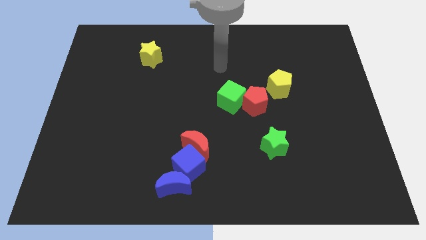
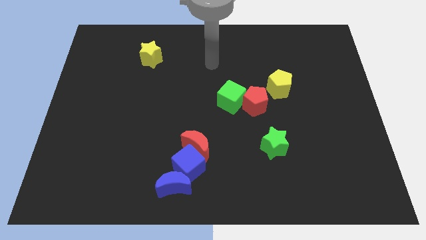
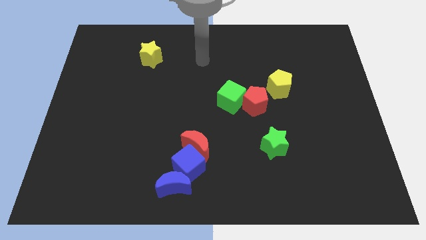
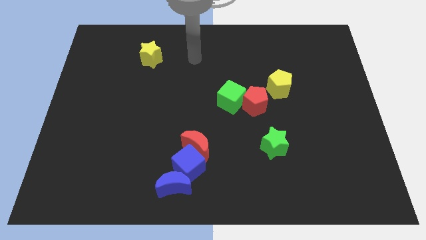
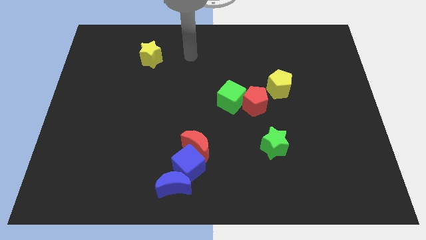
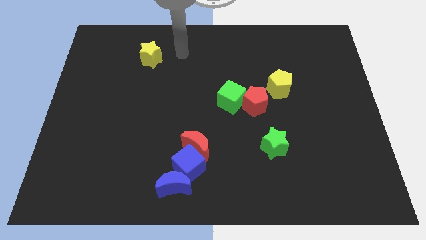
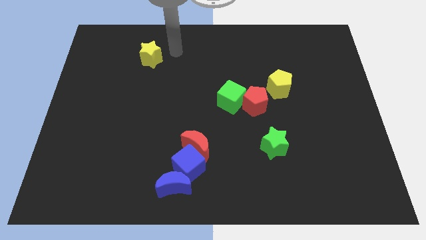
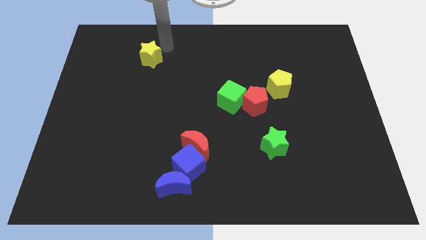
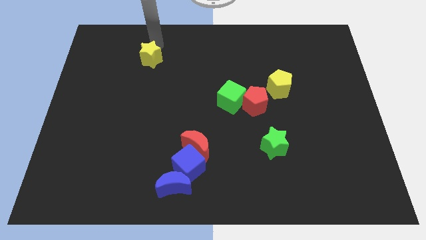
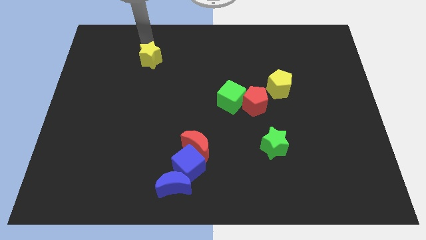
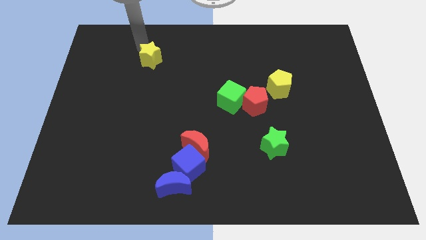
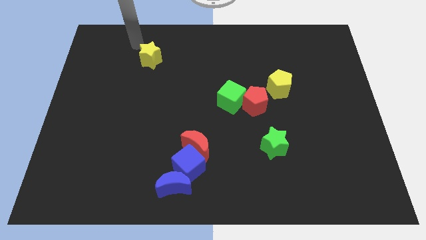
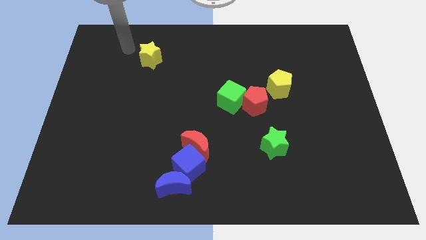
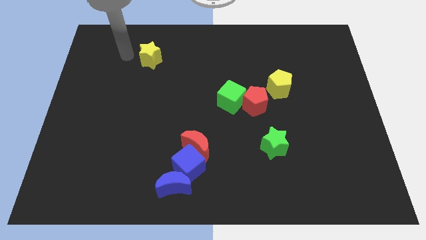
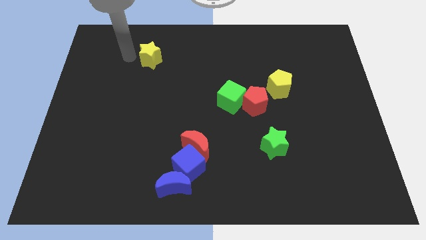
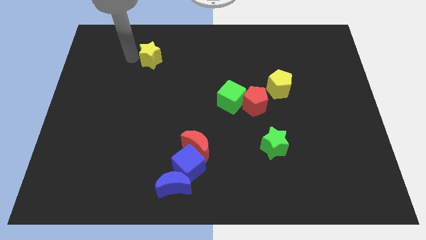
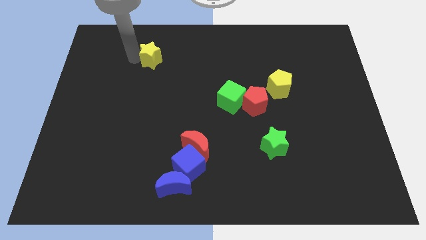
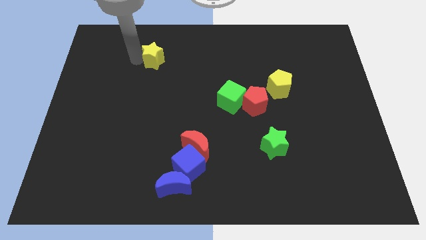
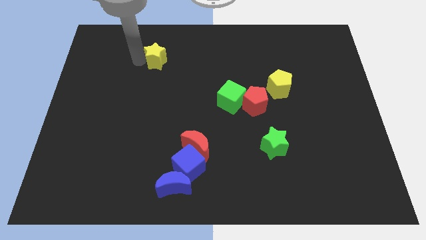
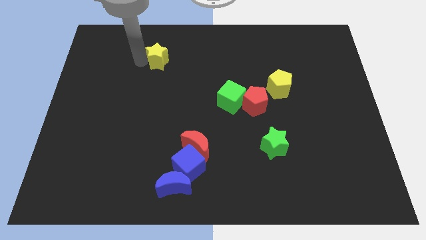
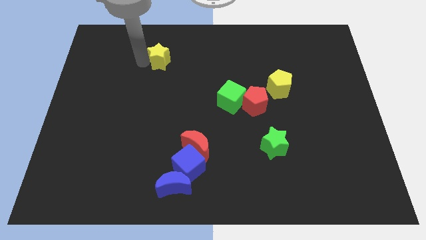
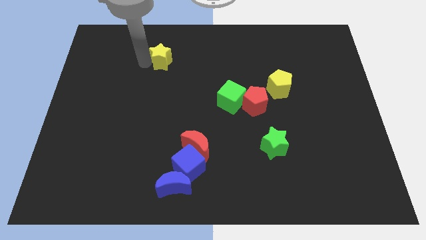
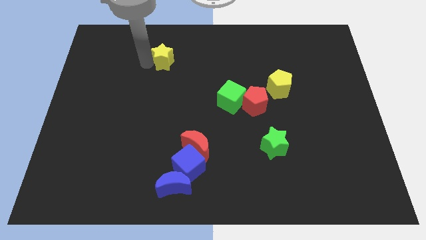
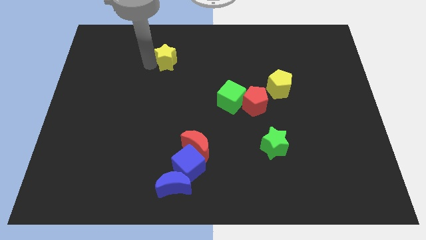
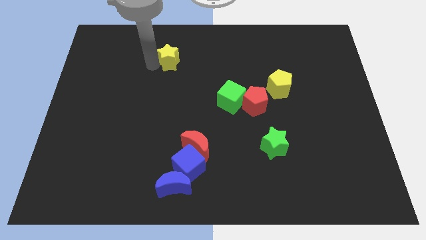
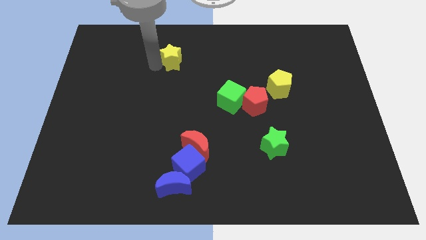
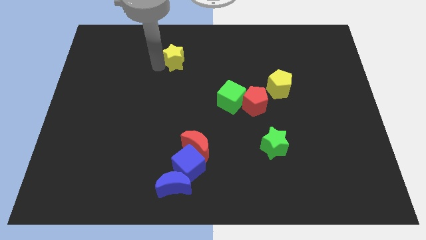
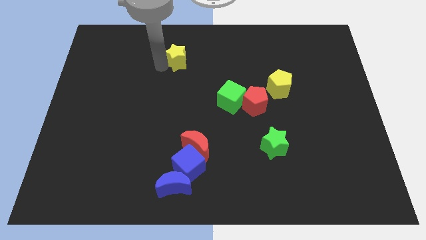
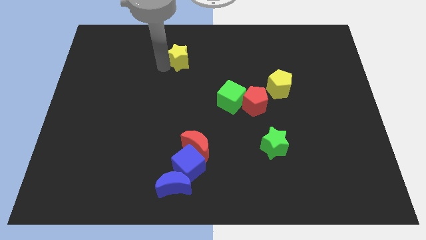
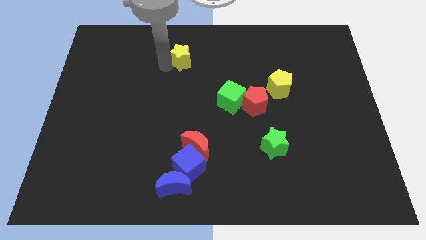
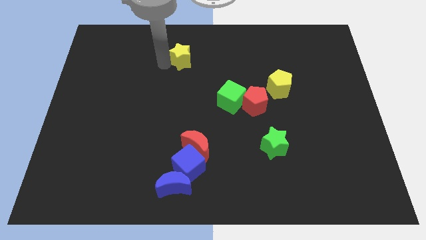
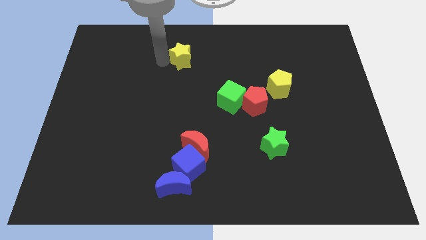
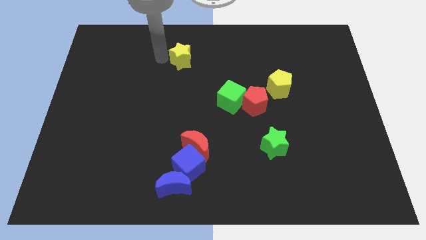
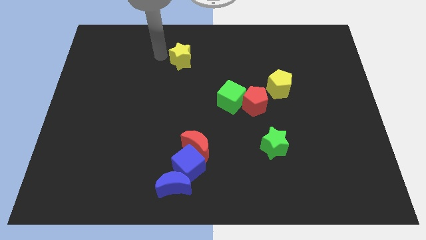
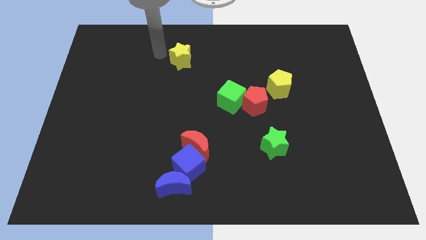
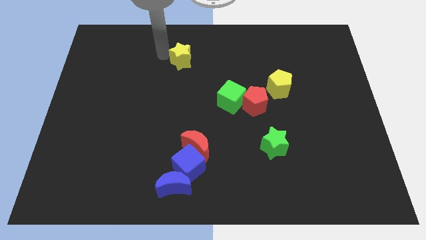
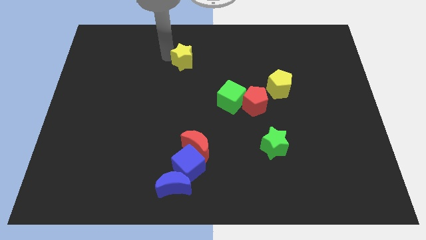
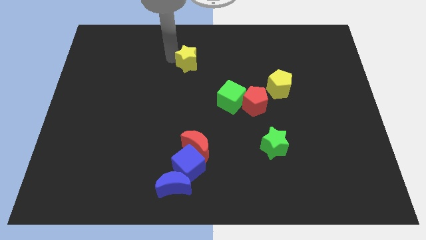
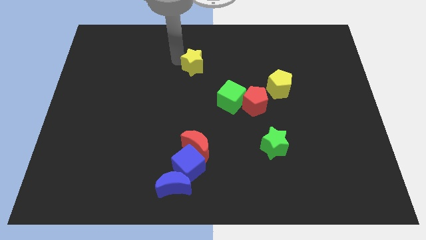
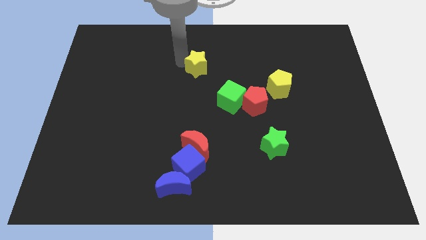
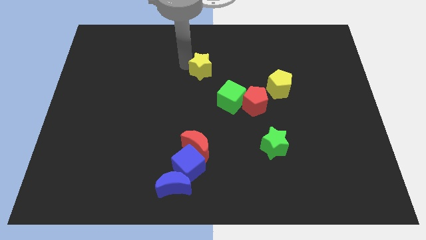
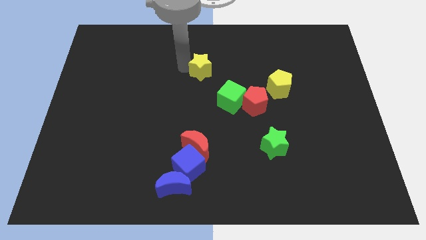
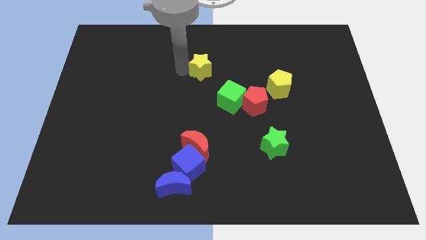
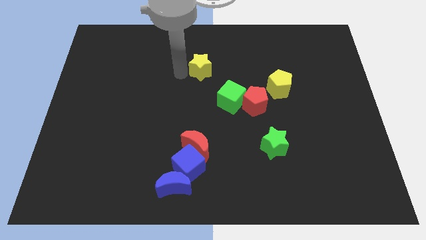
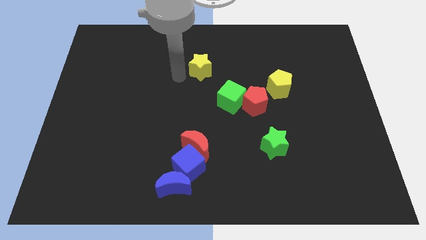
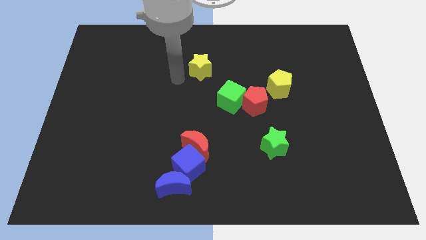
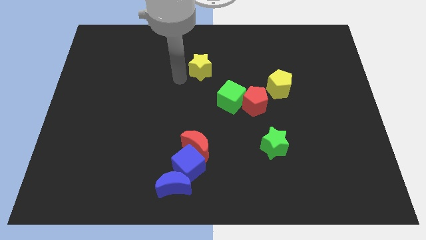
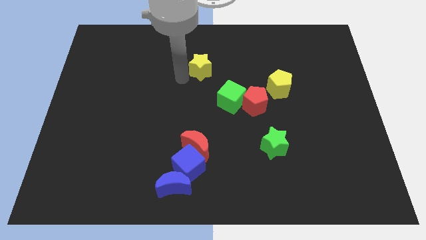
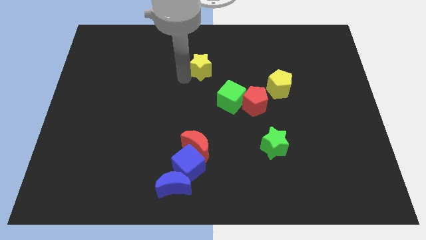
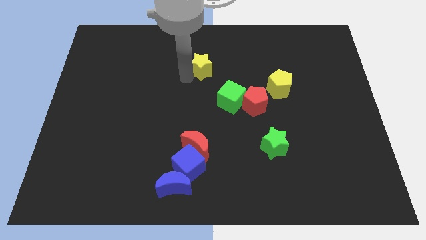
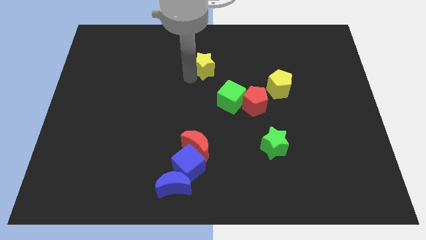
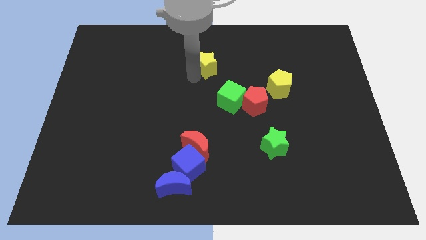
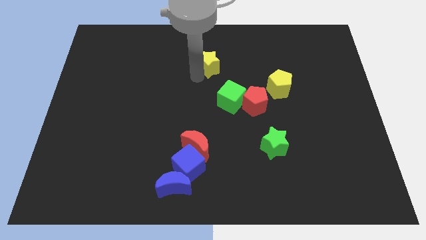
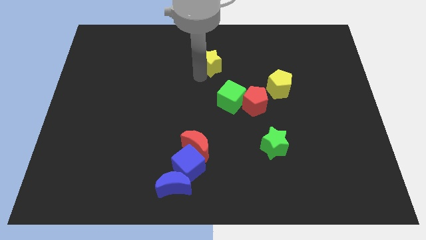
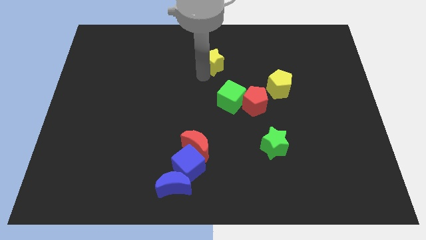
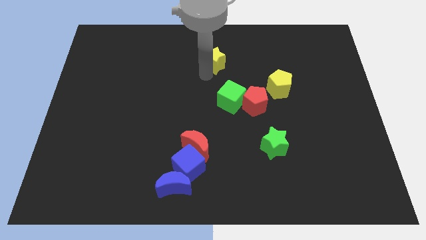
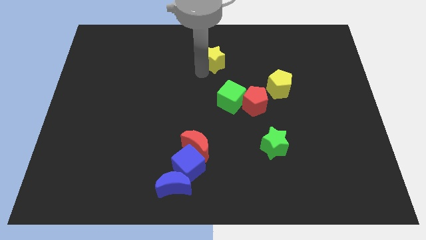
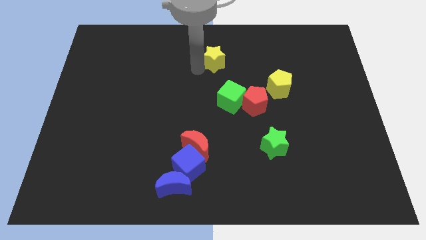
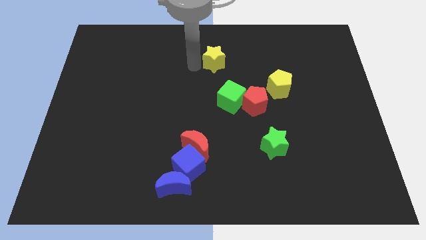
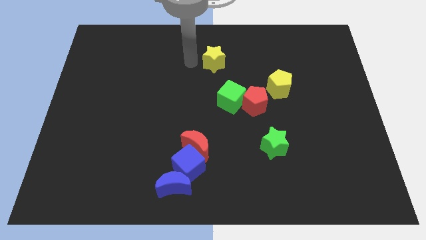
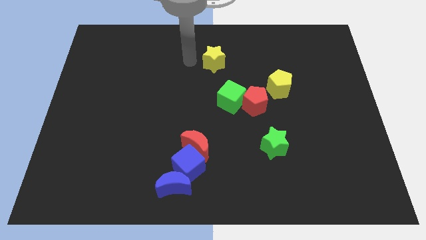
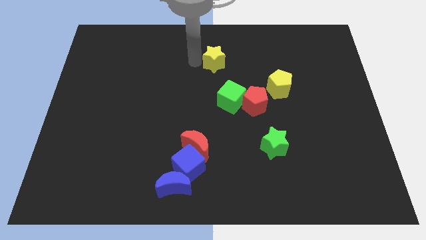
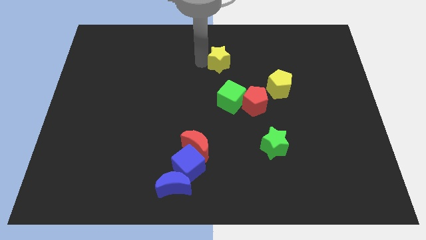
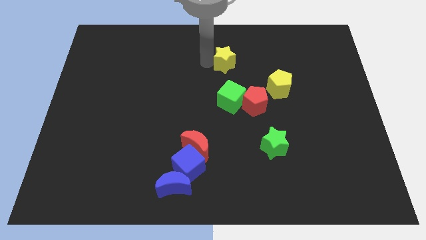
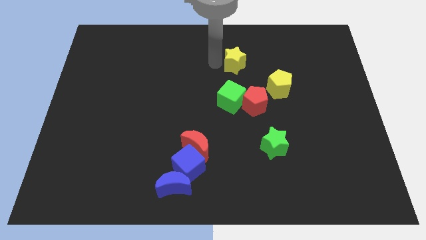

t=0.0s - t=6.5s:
slide the yellow star right

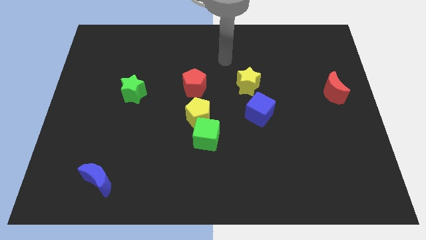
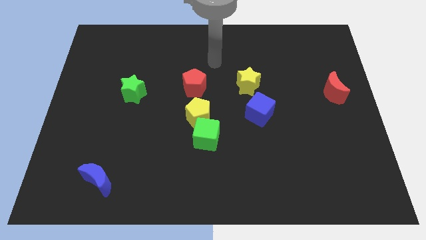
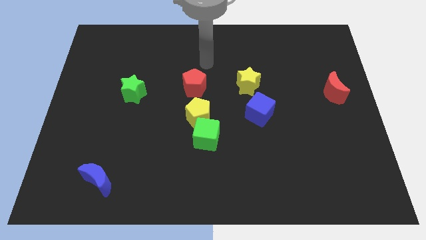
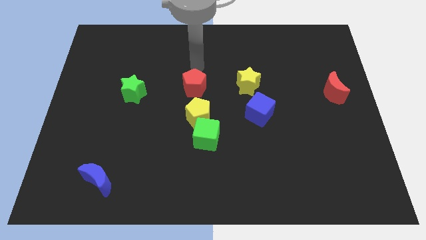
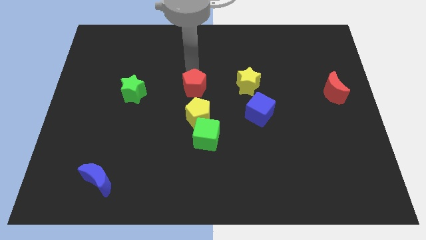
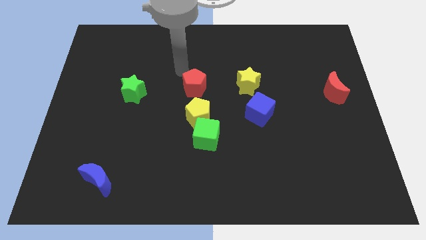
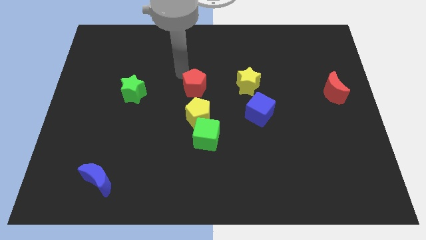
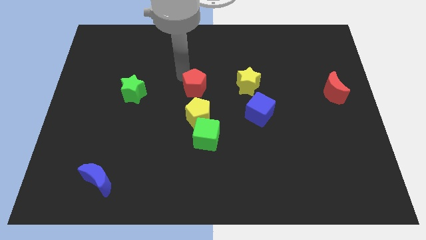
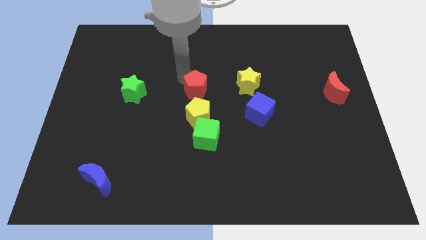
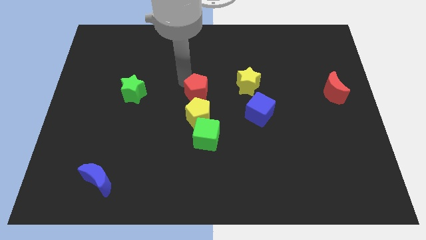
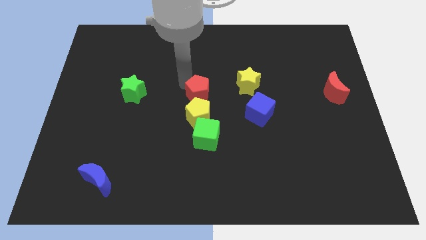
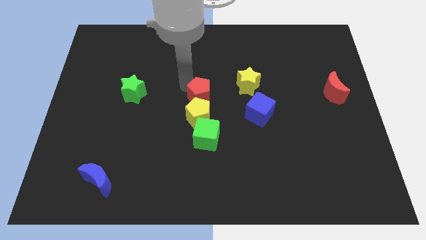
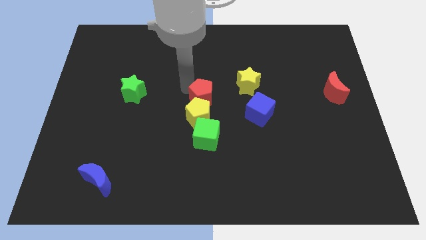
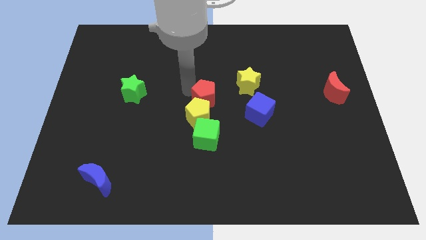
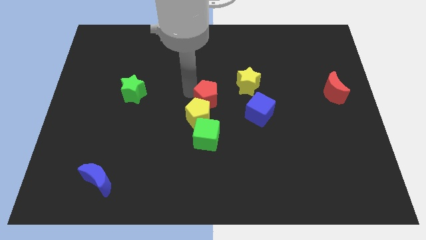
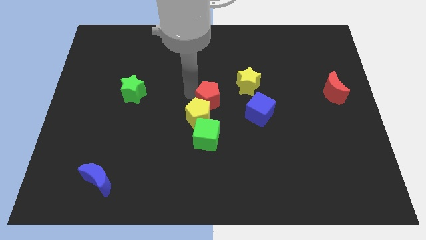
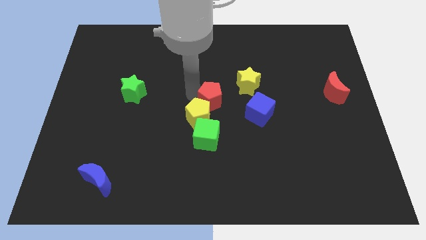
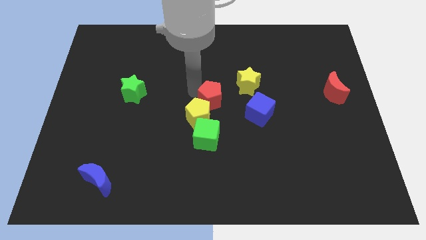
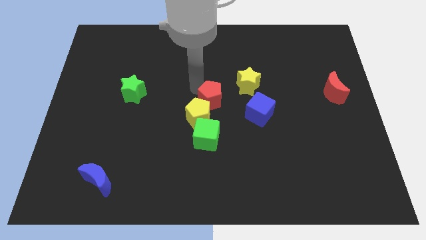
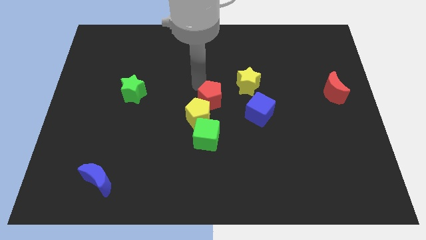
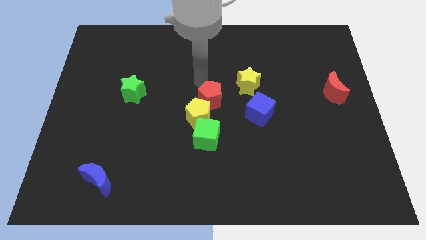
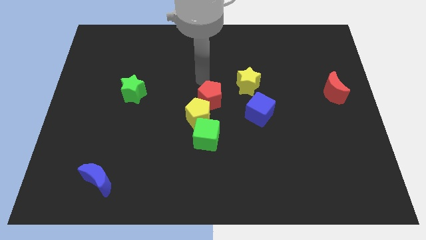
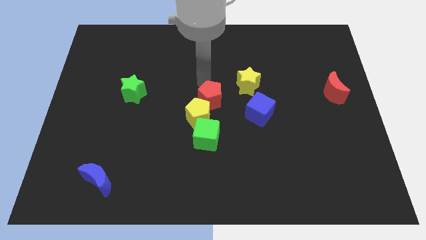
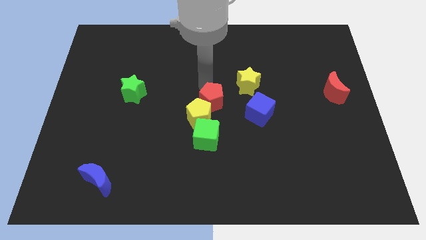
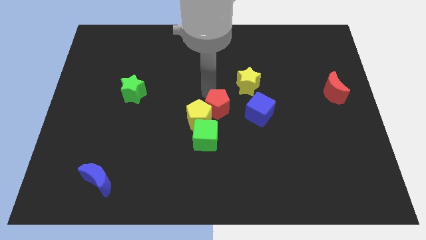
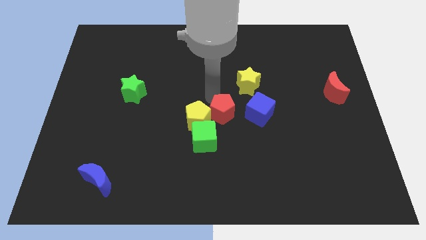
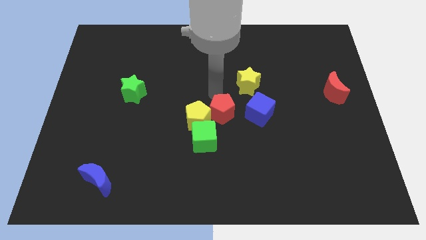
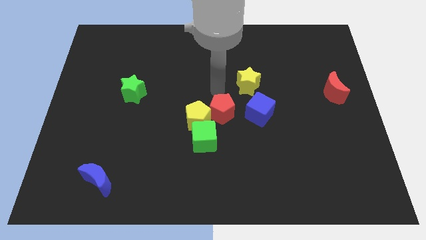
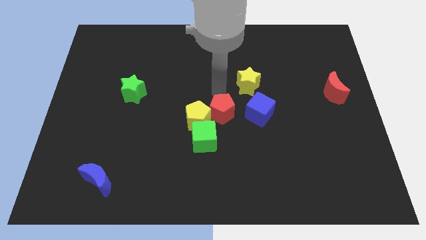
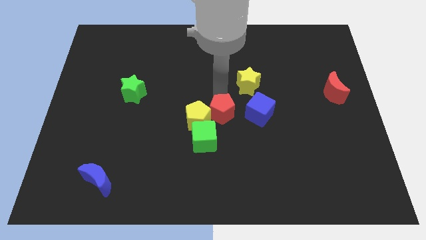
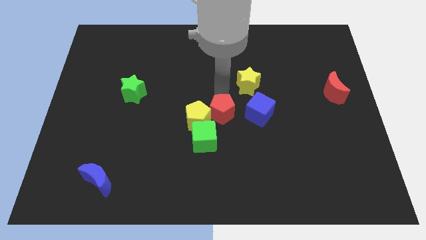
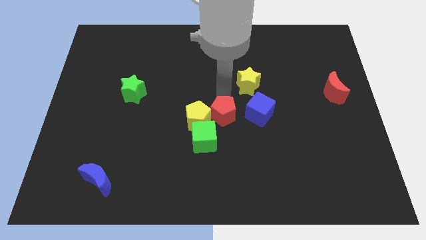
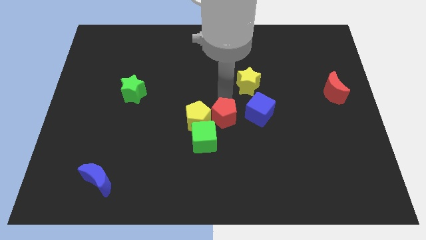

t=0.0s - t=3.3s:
slightly push the red pentagon downwards
